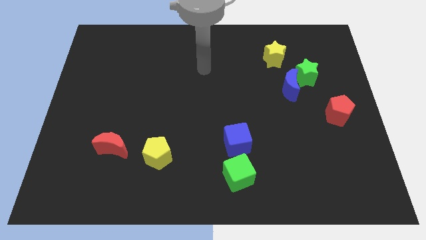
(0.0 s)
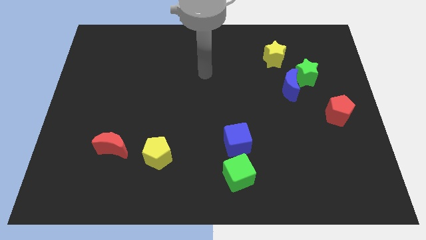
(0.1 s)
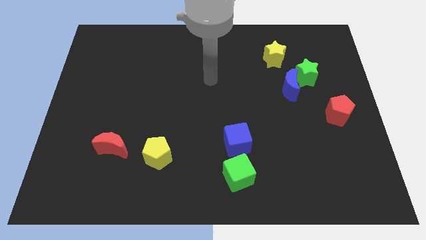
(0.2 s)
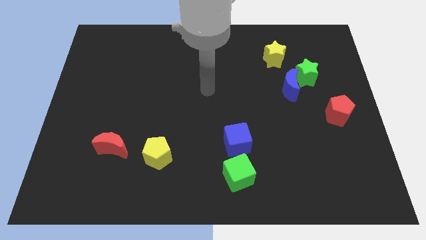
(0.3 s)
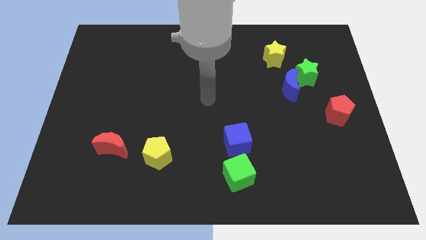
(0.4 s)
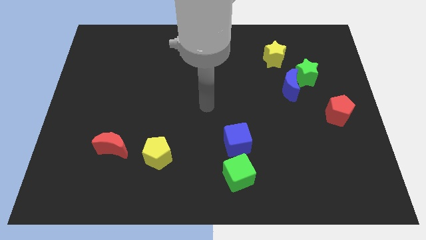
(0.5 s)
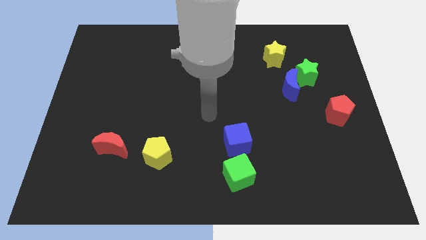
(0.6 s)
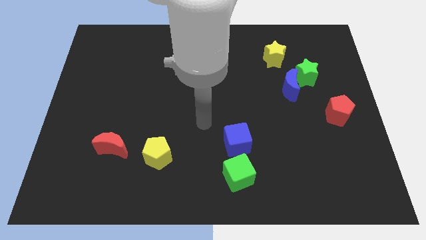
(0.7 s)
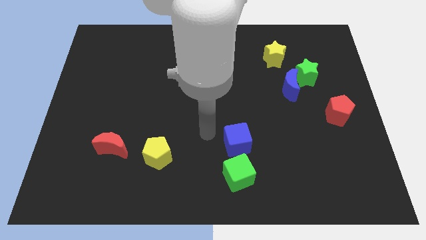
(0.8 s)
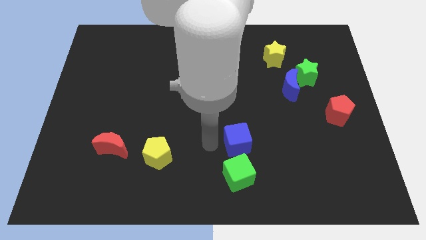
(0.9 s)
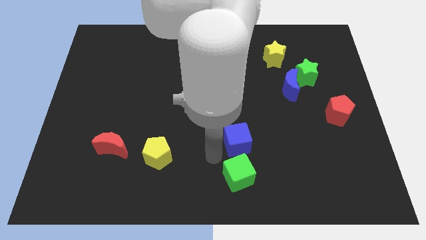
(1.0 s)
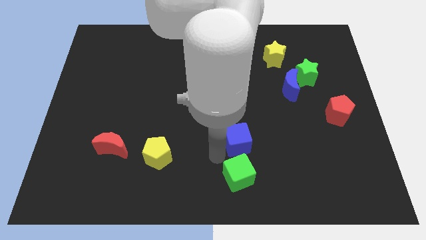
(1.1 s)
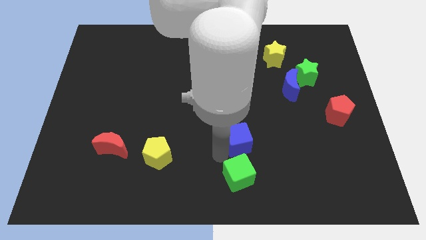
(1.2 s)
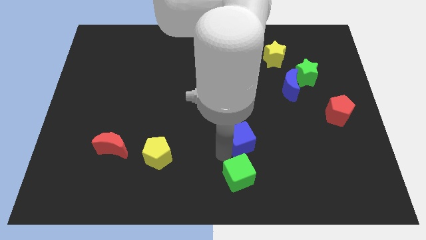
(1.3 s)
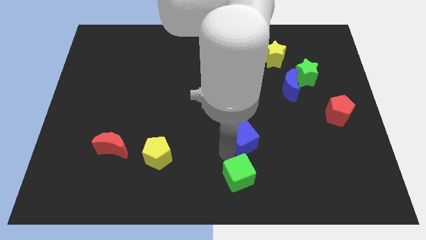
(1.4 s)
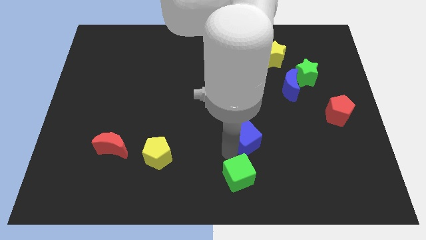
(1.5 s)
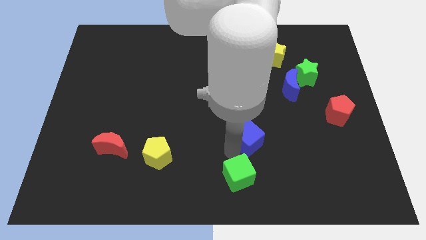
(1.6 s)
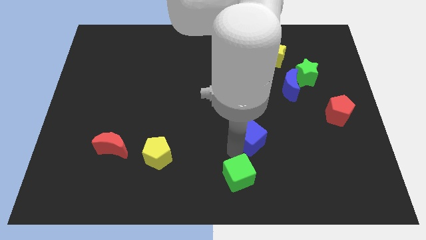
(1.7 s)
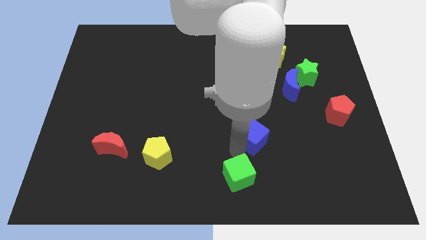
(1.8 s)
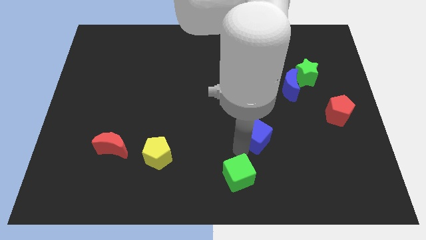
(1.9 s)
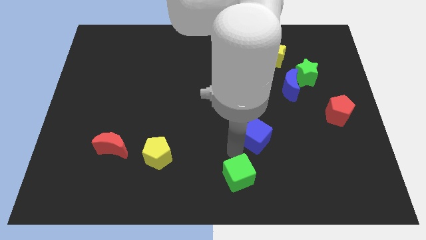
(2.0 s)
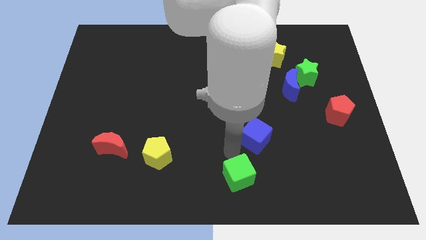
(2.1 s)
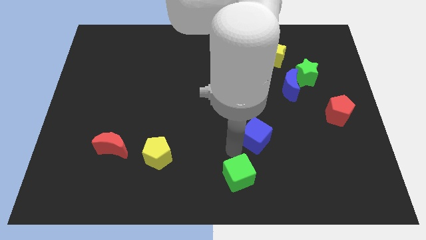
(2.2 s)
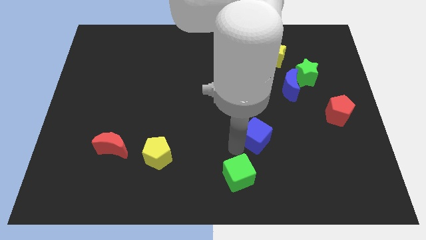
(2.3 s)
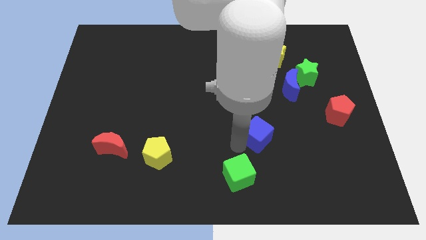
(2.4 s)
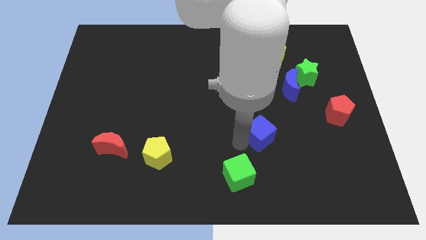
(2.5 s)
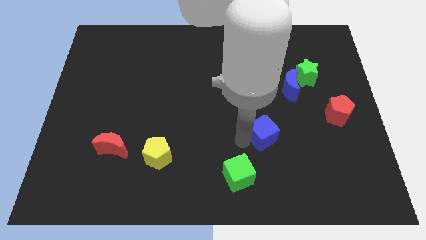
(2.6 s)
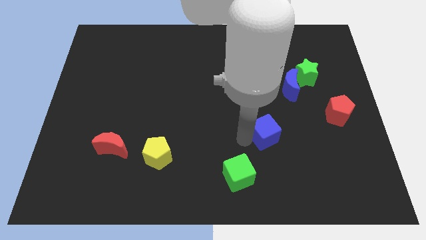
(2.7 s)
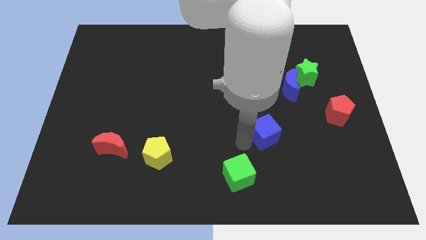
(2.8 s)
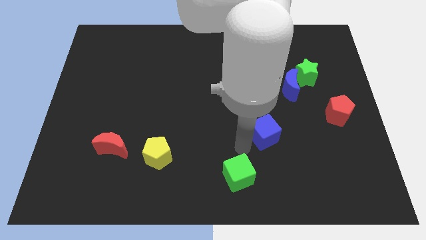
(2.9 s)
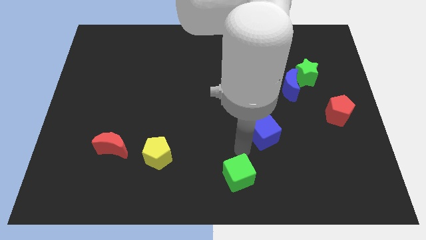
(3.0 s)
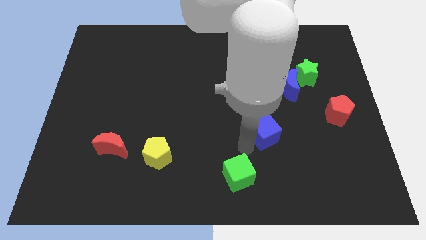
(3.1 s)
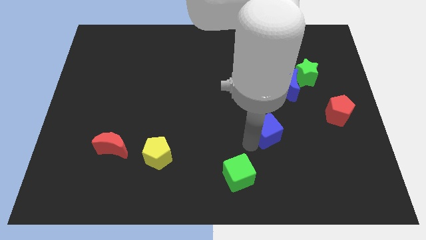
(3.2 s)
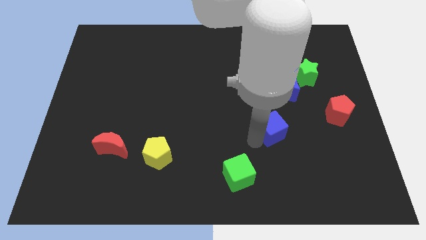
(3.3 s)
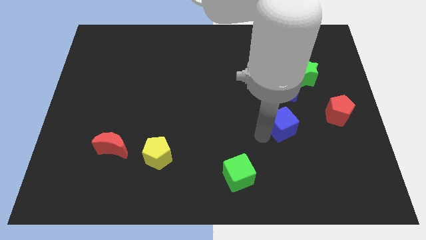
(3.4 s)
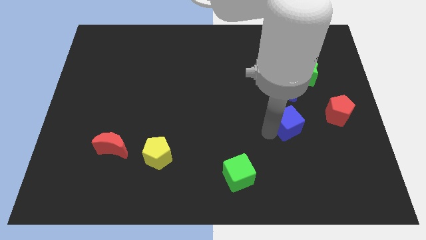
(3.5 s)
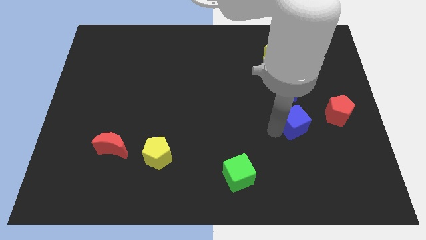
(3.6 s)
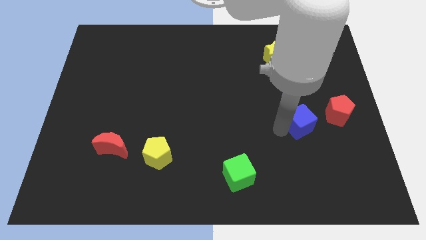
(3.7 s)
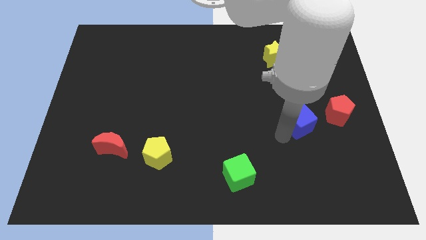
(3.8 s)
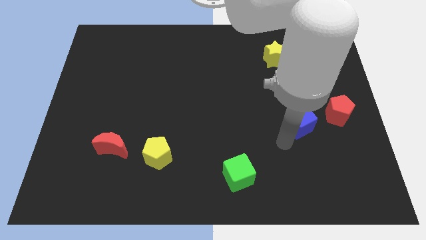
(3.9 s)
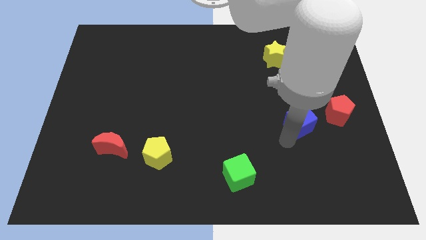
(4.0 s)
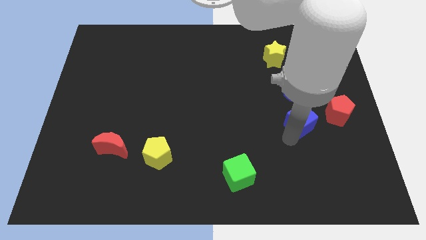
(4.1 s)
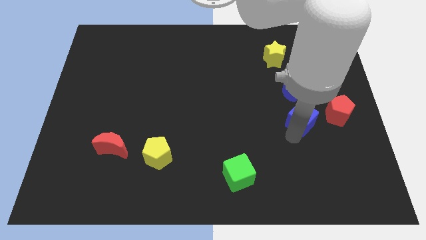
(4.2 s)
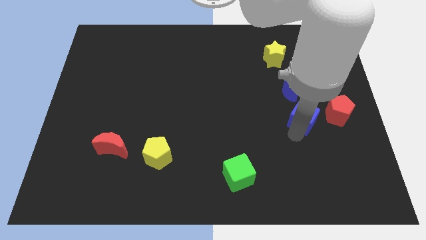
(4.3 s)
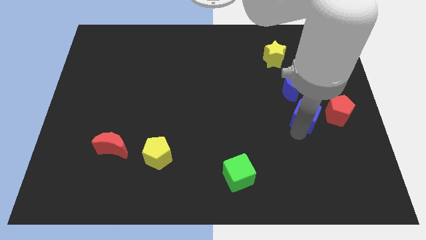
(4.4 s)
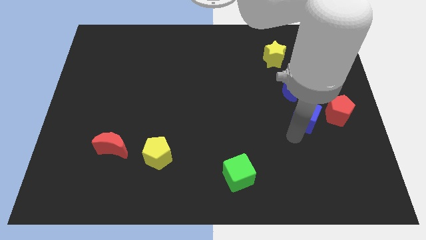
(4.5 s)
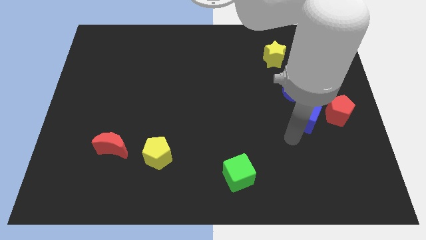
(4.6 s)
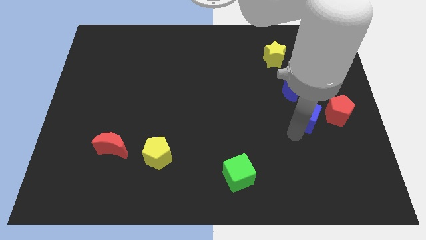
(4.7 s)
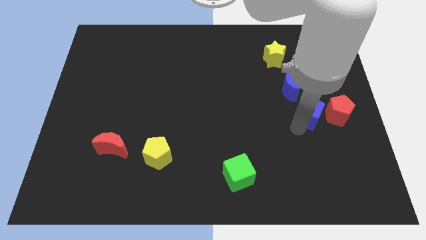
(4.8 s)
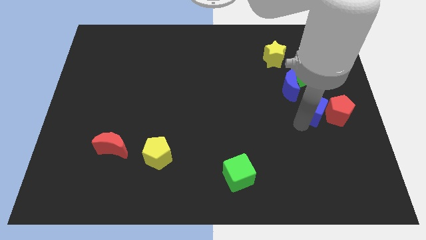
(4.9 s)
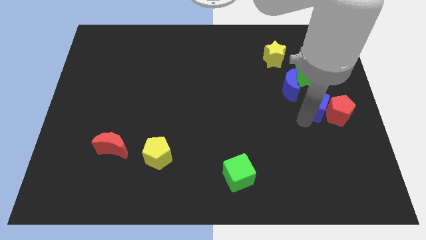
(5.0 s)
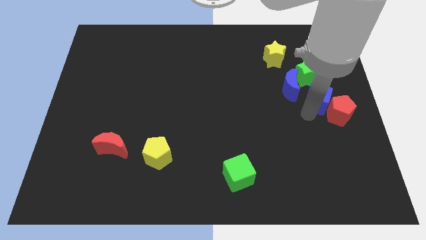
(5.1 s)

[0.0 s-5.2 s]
move the blue cube to the right of the blue moon
